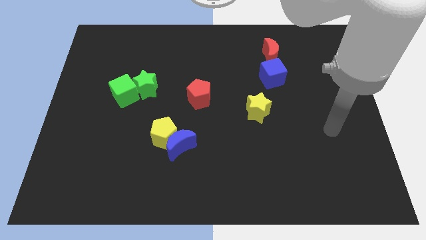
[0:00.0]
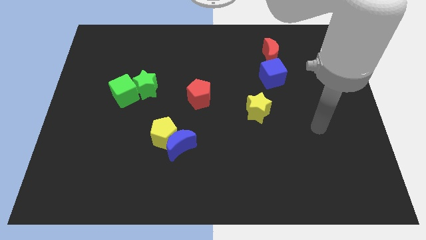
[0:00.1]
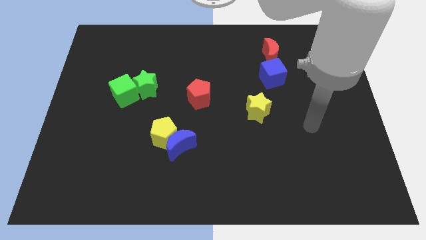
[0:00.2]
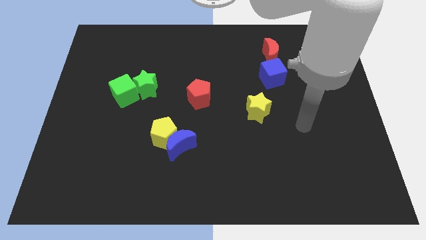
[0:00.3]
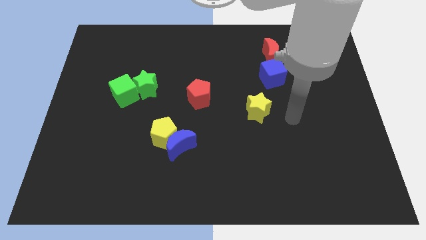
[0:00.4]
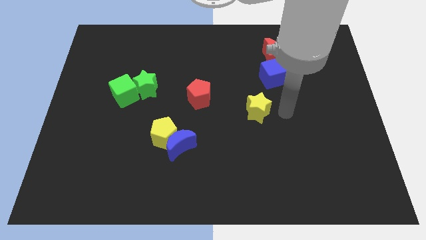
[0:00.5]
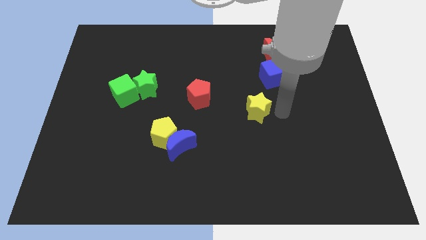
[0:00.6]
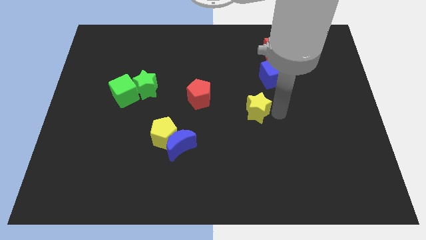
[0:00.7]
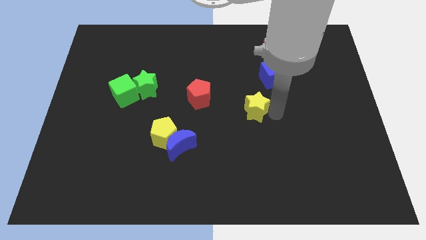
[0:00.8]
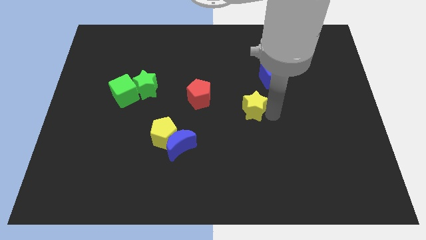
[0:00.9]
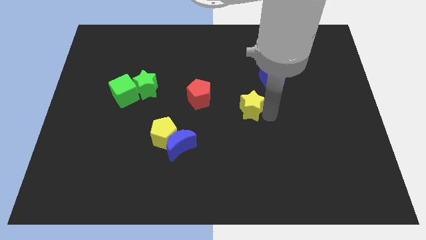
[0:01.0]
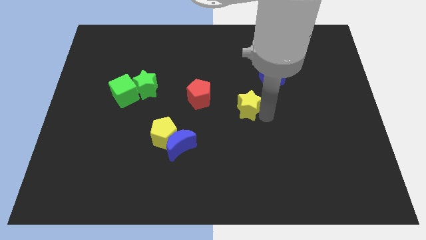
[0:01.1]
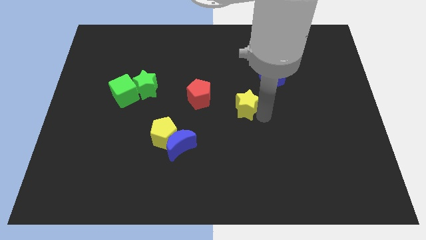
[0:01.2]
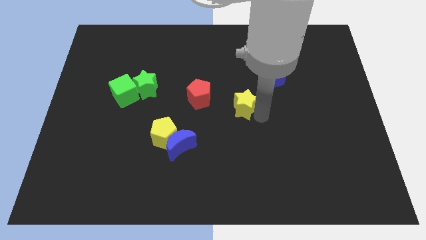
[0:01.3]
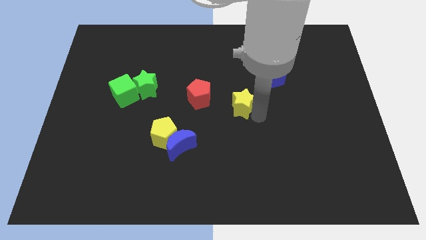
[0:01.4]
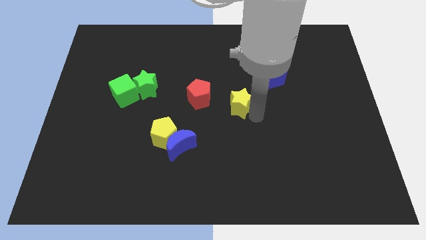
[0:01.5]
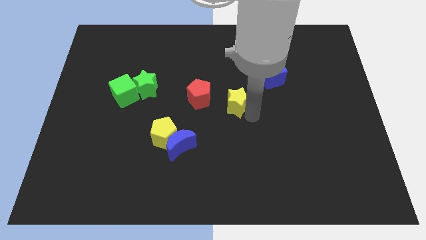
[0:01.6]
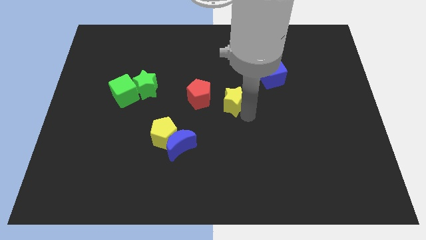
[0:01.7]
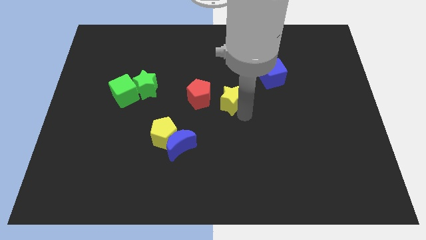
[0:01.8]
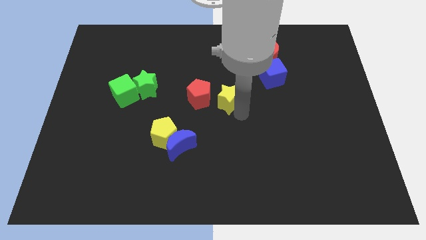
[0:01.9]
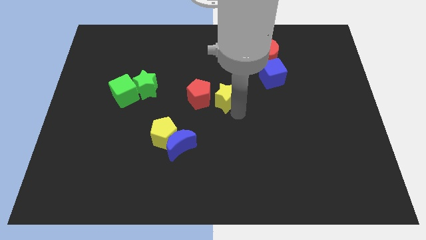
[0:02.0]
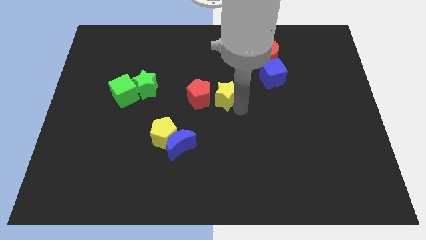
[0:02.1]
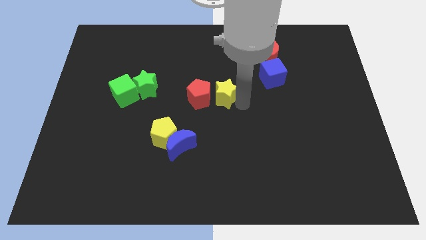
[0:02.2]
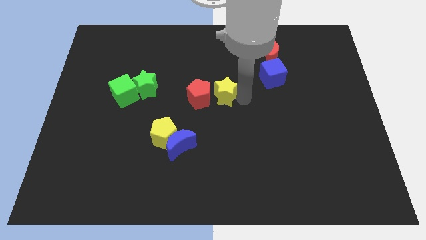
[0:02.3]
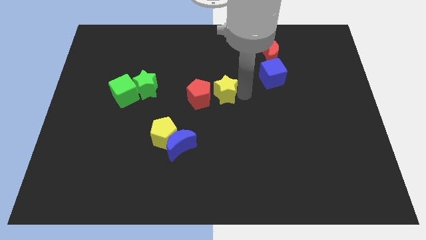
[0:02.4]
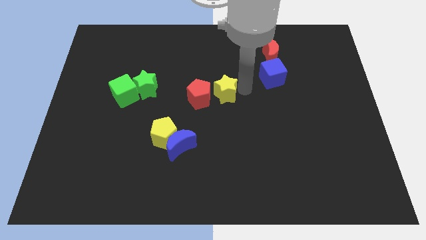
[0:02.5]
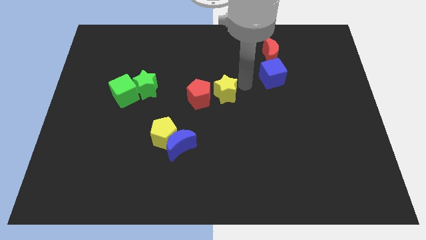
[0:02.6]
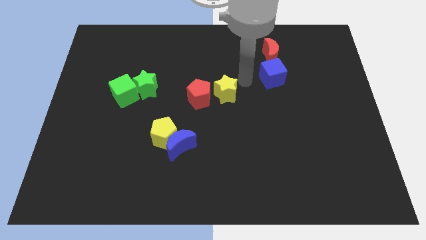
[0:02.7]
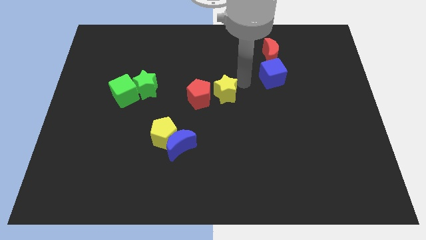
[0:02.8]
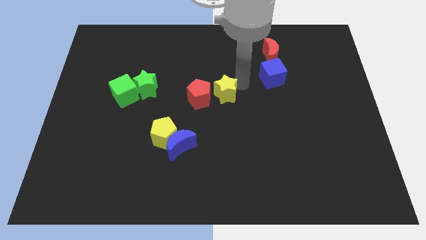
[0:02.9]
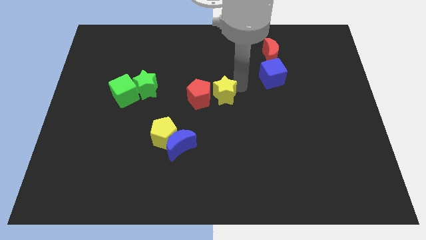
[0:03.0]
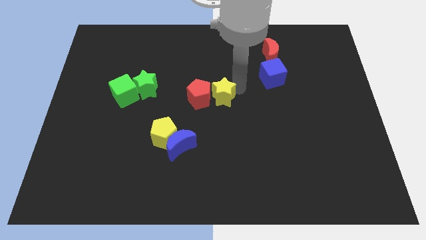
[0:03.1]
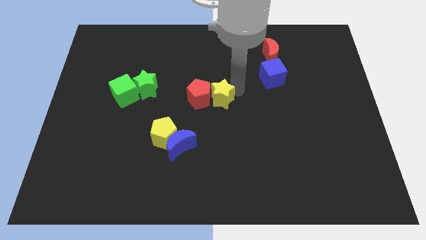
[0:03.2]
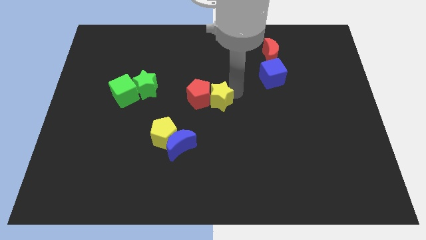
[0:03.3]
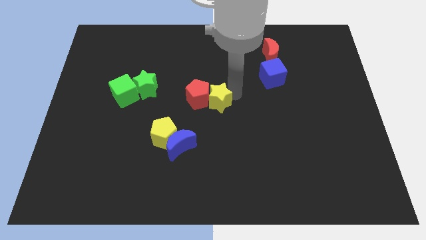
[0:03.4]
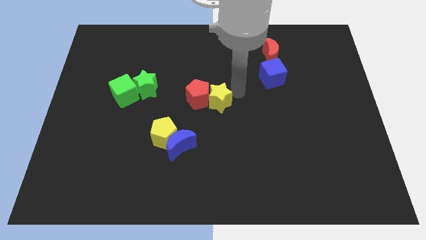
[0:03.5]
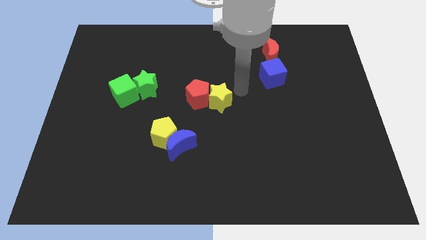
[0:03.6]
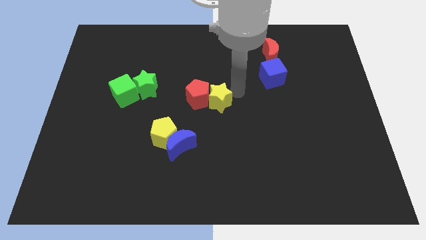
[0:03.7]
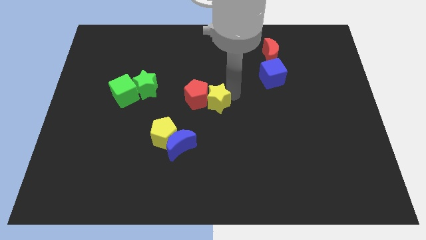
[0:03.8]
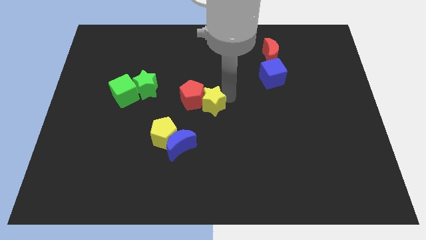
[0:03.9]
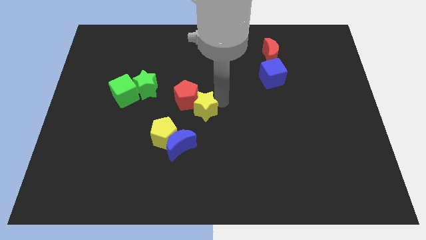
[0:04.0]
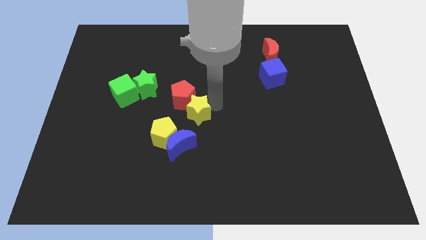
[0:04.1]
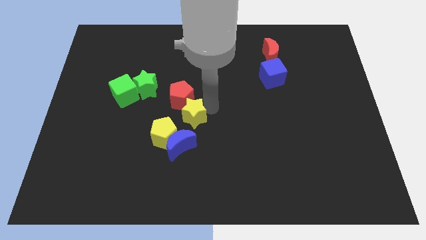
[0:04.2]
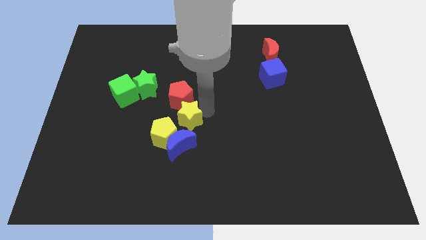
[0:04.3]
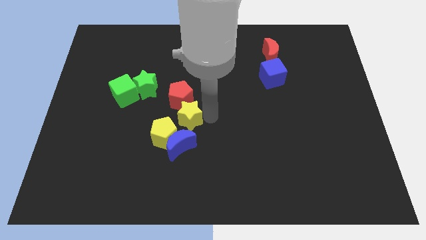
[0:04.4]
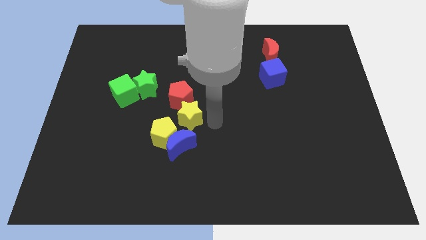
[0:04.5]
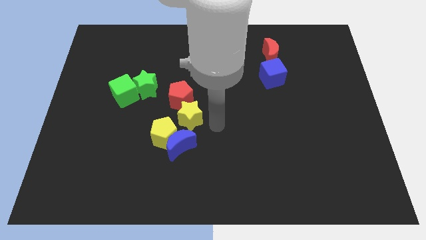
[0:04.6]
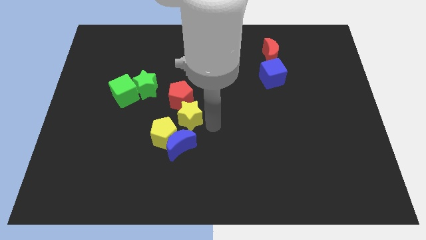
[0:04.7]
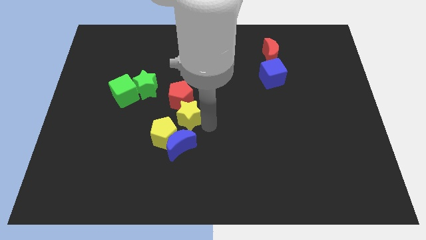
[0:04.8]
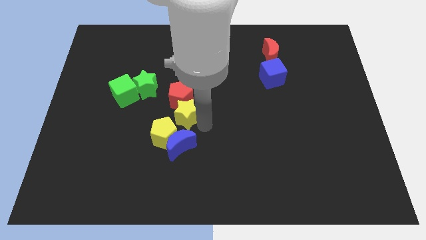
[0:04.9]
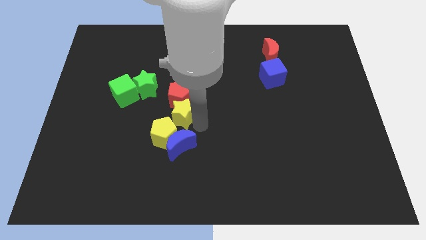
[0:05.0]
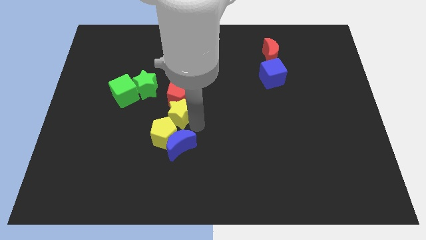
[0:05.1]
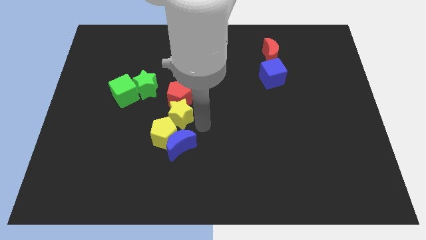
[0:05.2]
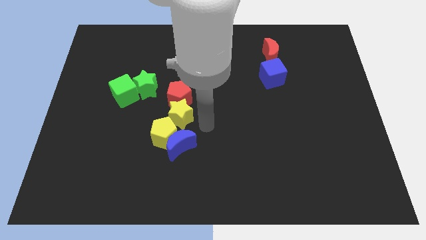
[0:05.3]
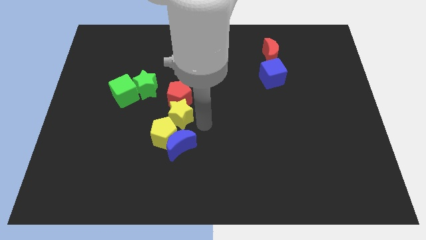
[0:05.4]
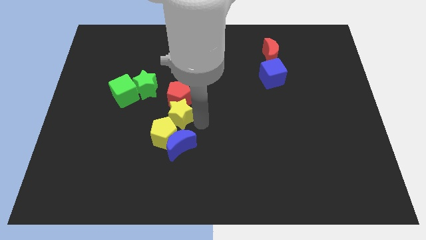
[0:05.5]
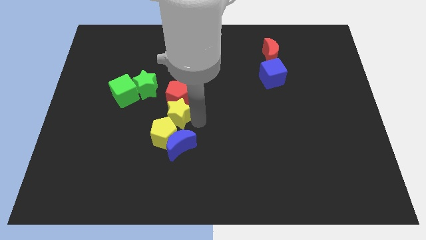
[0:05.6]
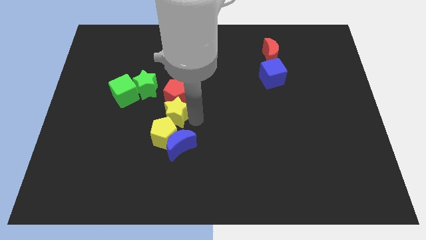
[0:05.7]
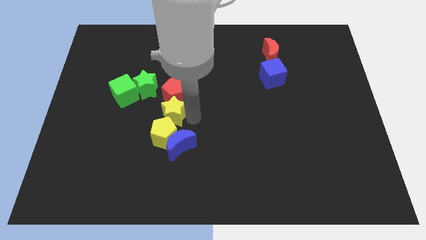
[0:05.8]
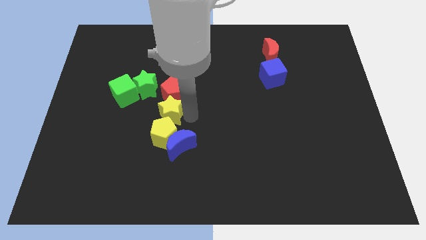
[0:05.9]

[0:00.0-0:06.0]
move the yellow star left

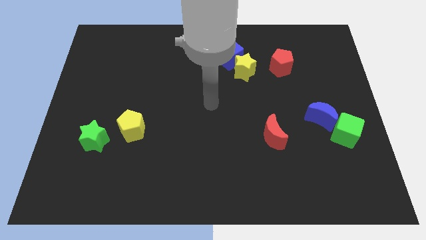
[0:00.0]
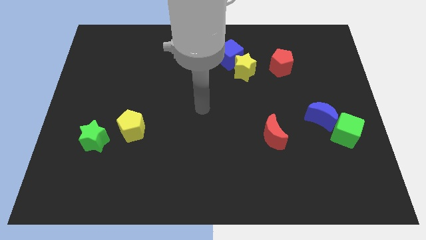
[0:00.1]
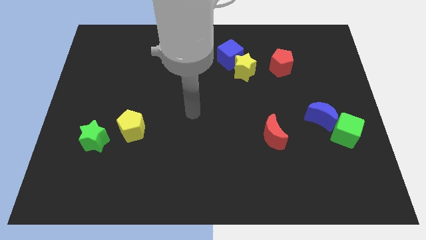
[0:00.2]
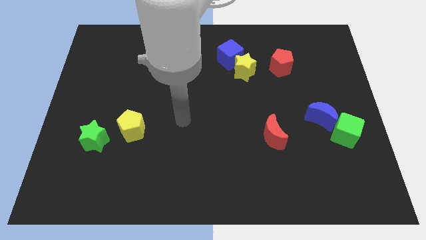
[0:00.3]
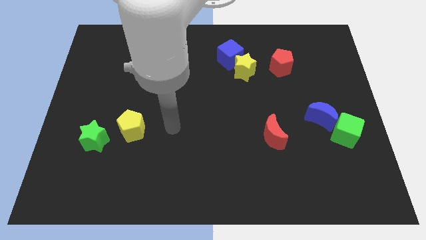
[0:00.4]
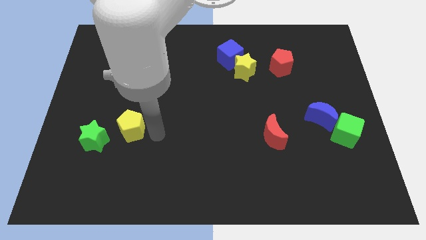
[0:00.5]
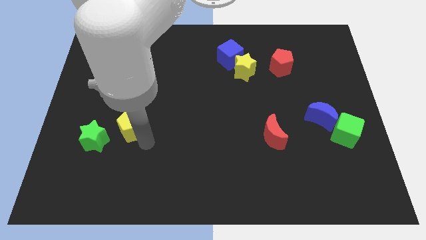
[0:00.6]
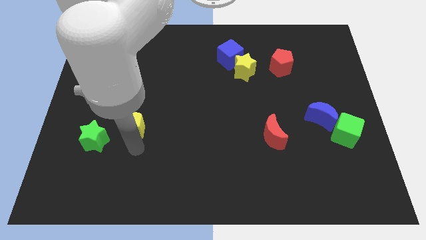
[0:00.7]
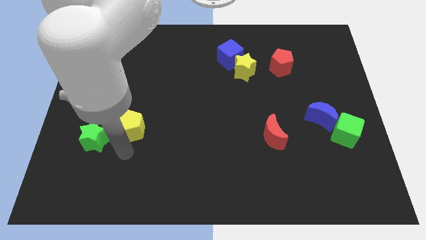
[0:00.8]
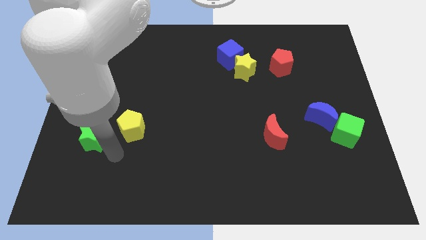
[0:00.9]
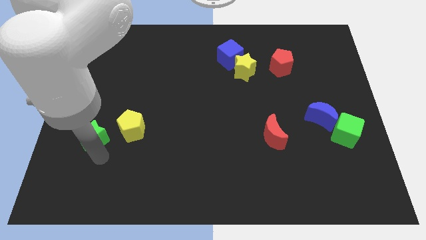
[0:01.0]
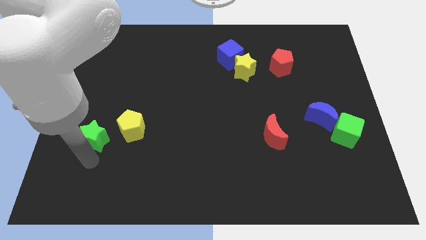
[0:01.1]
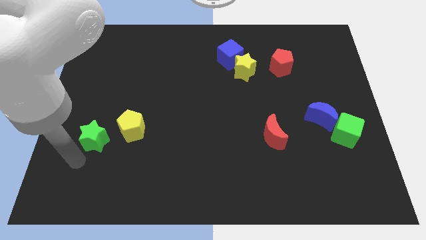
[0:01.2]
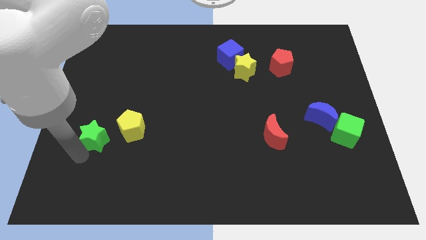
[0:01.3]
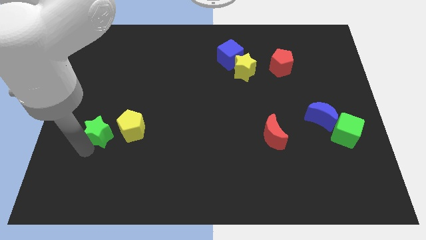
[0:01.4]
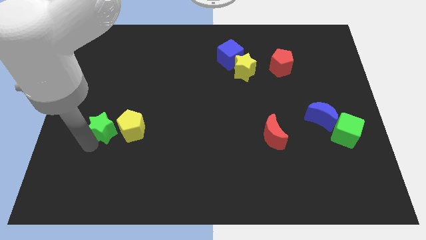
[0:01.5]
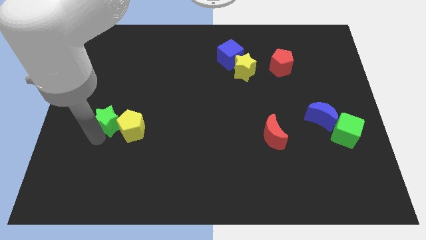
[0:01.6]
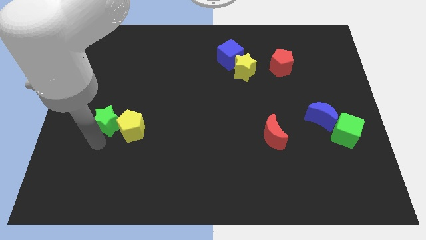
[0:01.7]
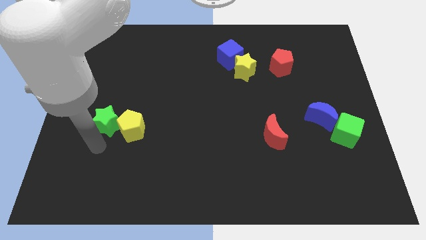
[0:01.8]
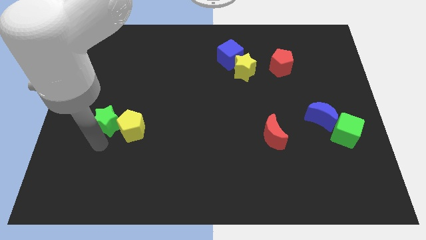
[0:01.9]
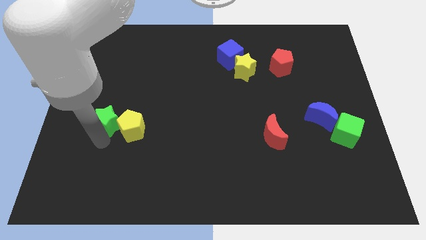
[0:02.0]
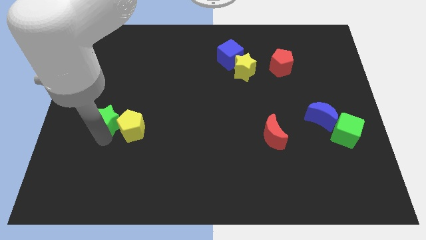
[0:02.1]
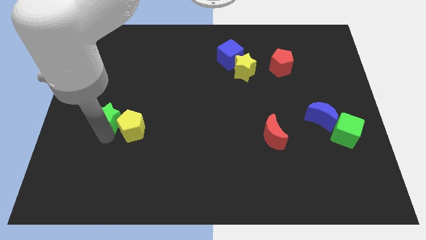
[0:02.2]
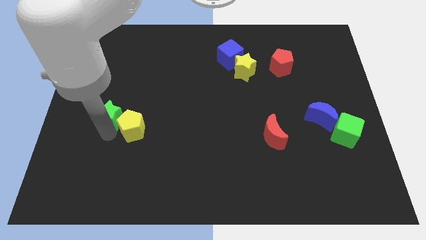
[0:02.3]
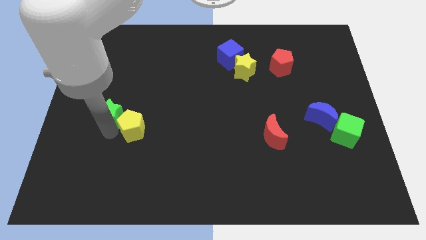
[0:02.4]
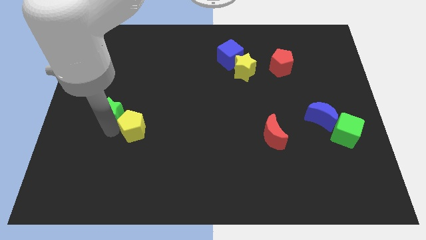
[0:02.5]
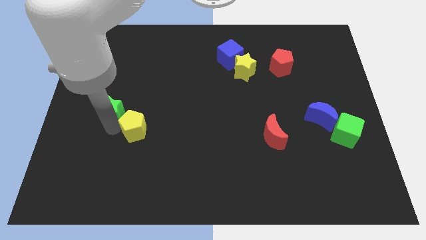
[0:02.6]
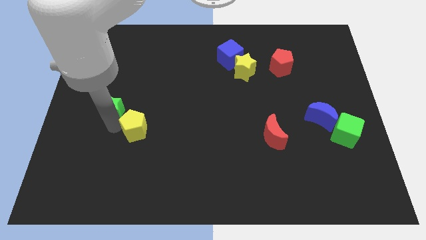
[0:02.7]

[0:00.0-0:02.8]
slightly move the green star upwards and then to the right
